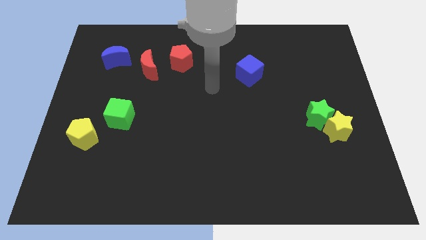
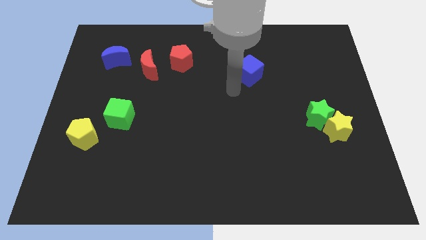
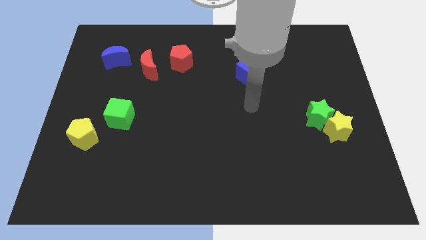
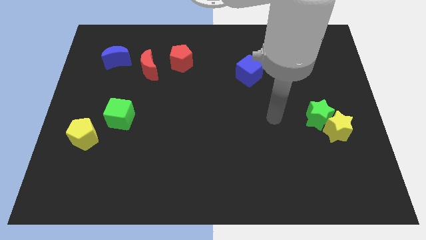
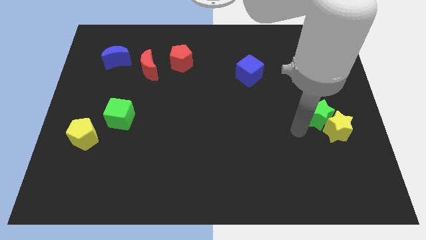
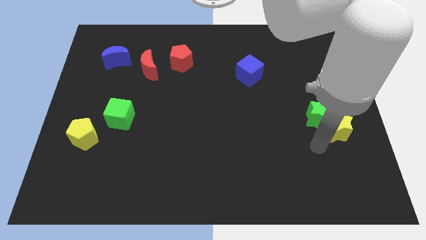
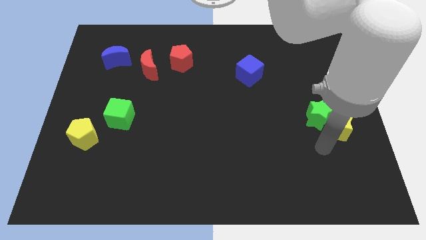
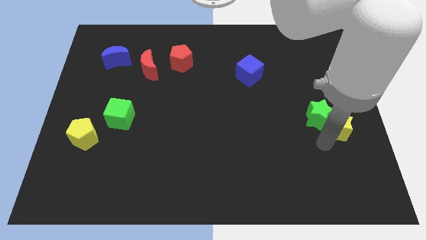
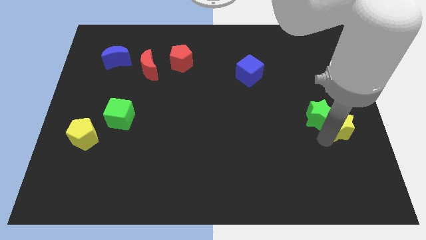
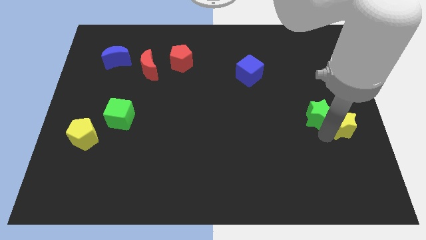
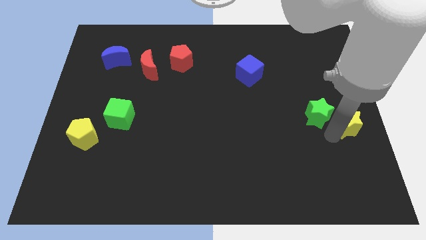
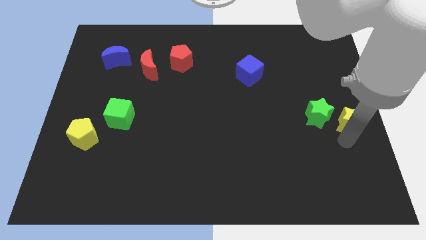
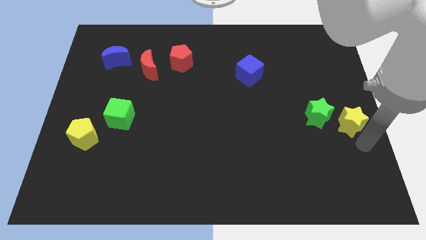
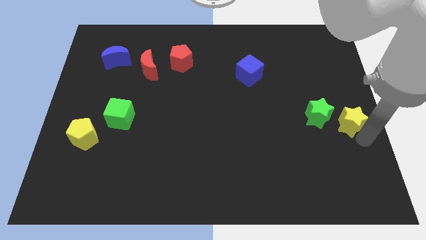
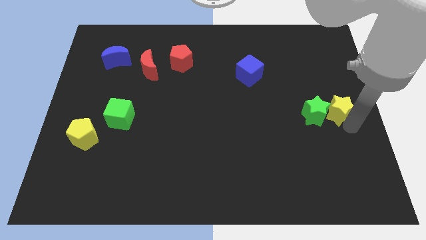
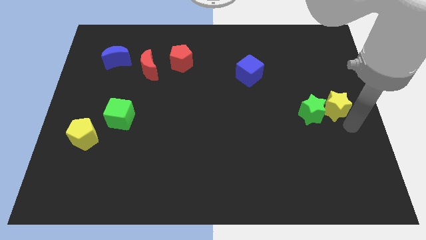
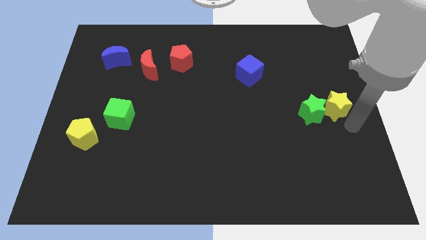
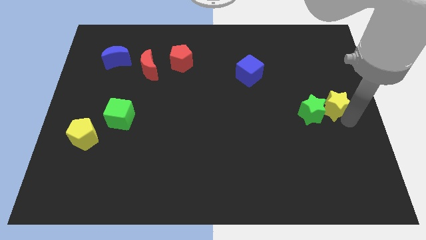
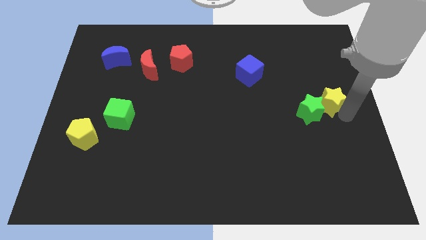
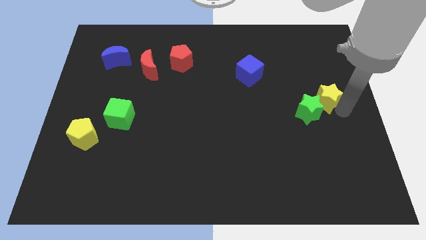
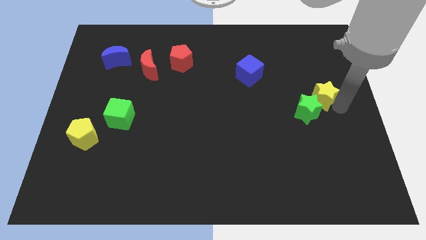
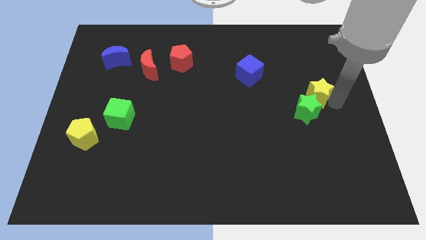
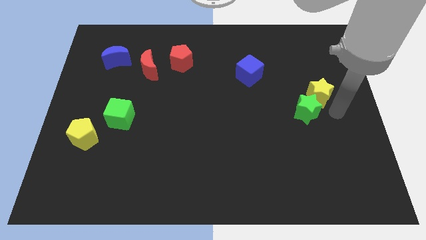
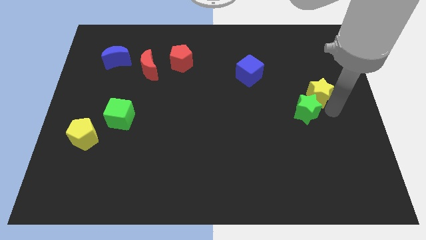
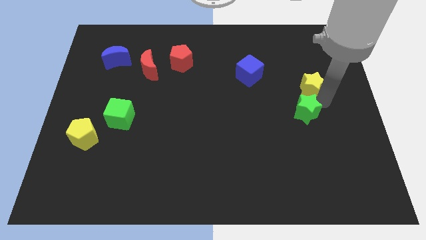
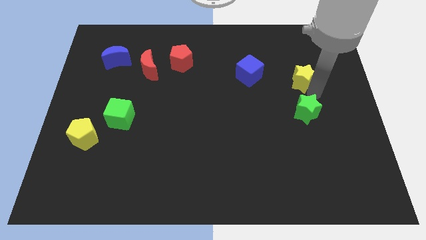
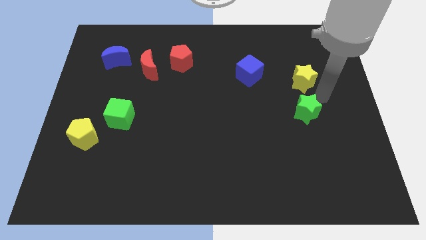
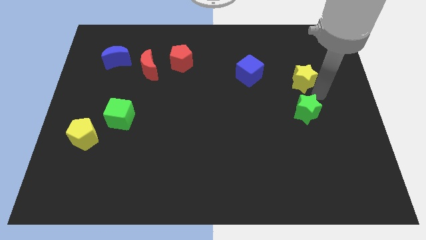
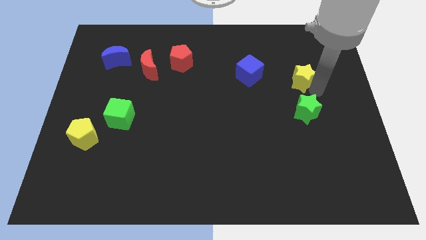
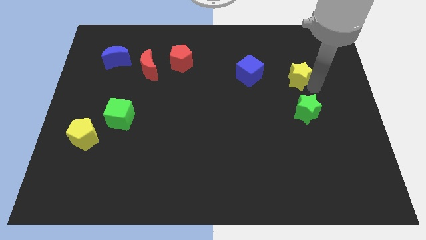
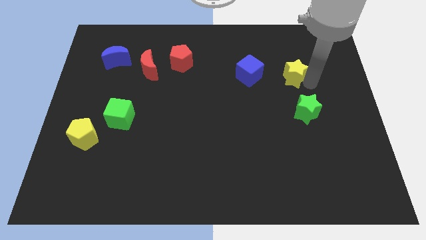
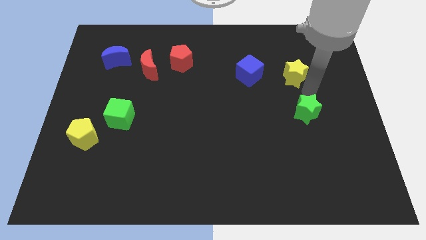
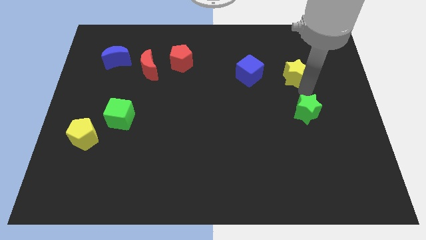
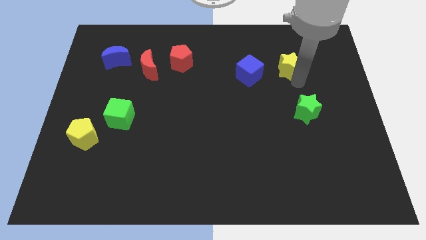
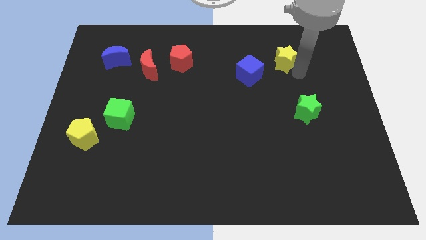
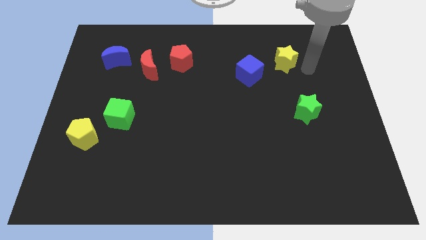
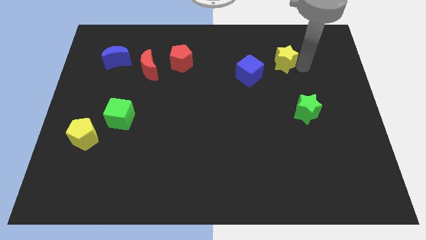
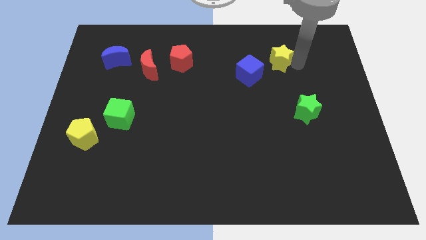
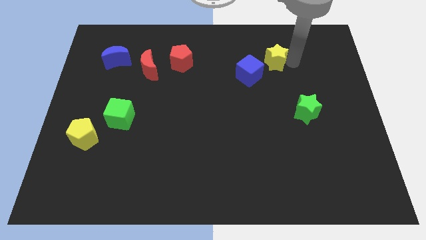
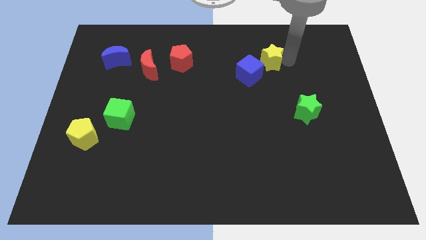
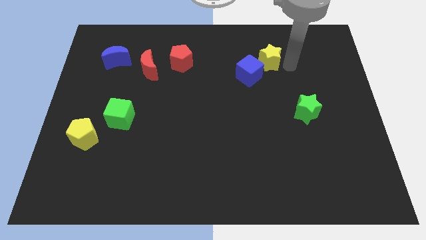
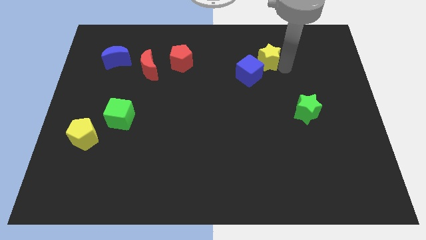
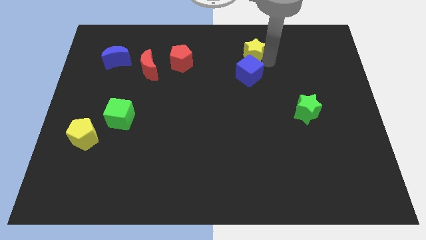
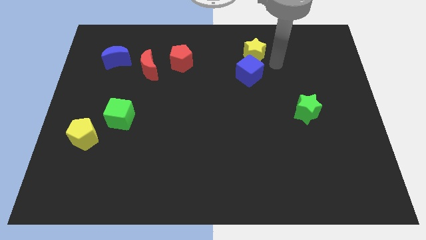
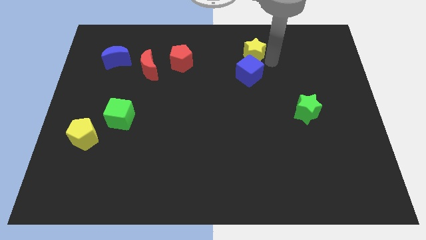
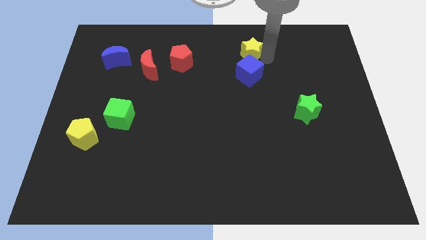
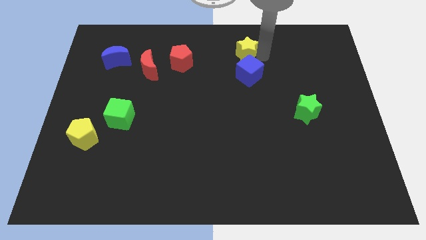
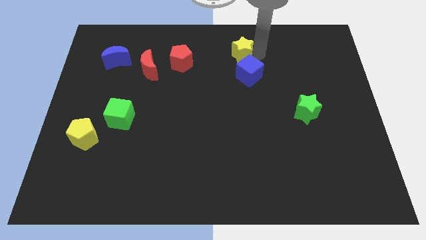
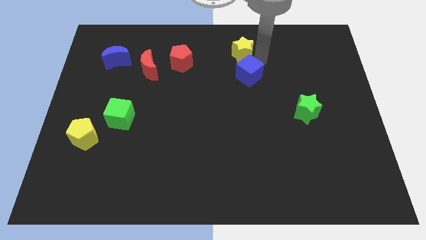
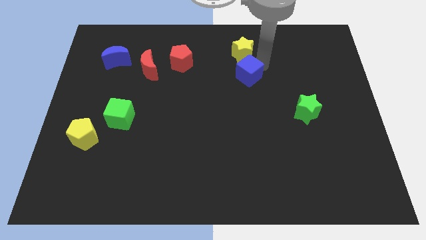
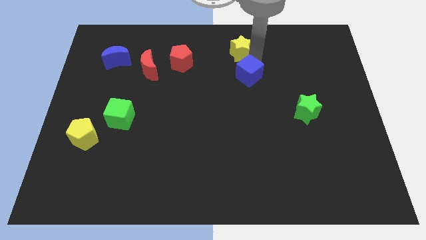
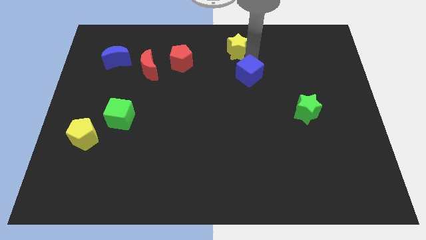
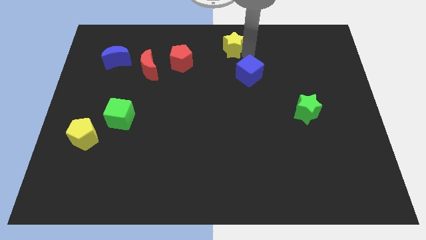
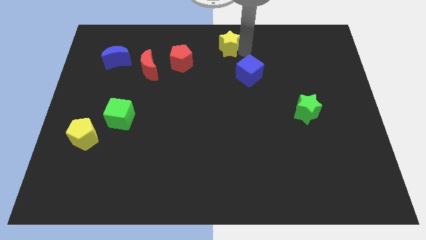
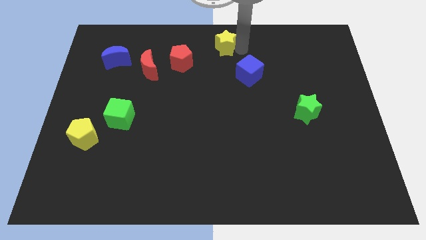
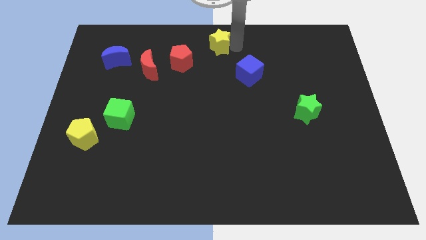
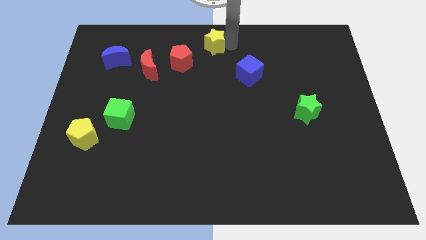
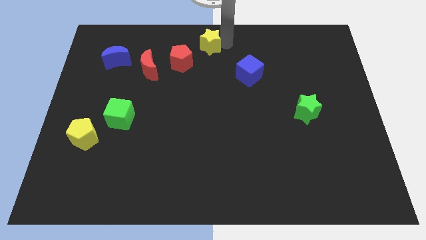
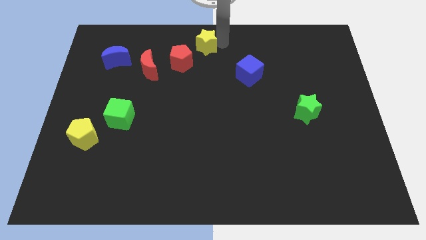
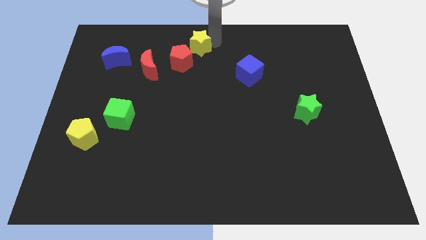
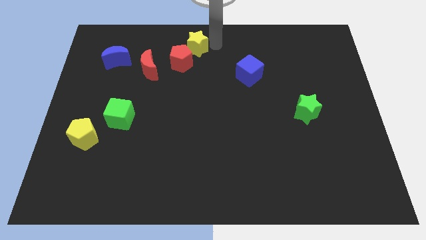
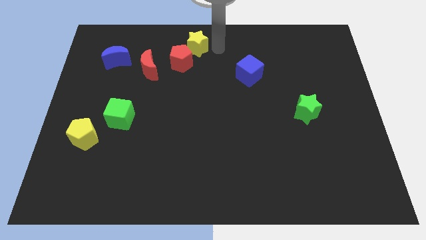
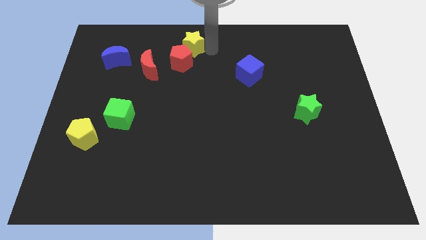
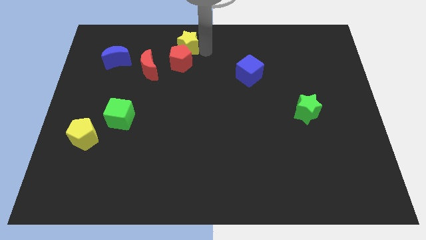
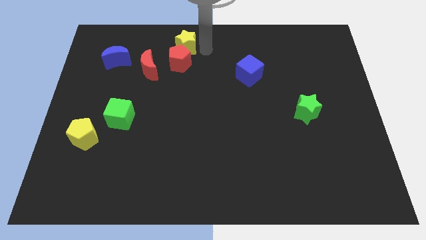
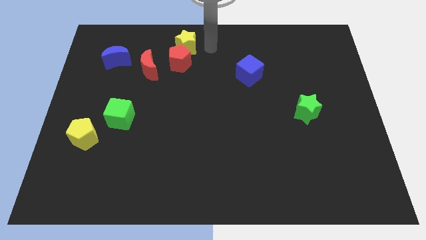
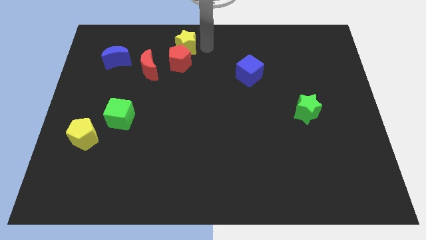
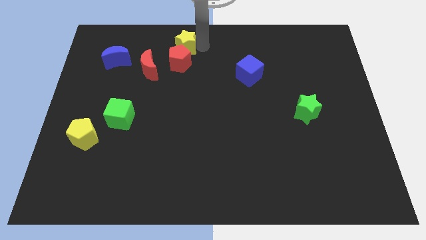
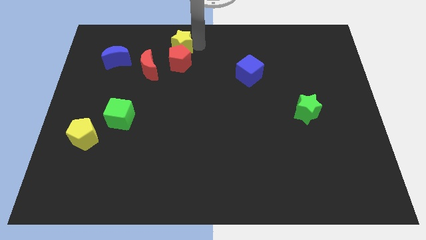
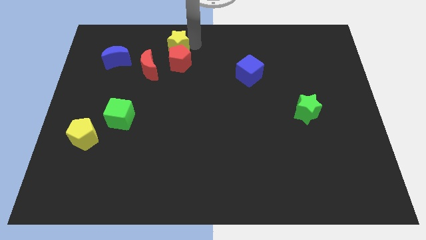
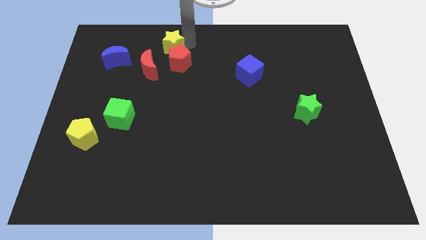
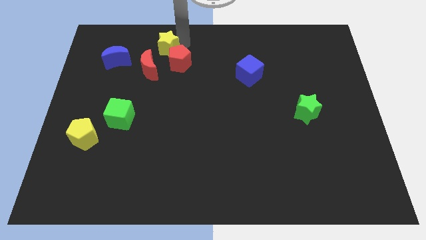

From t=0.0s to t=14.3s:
push the yellow star to the right of the blue moon
